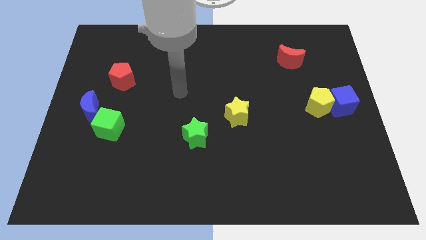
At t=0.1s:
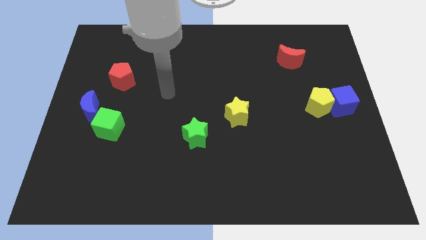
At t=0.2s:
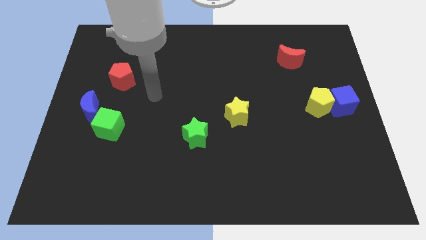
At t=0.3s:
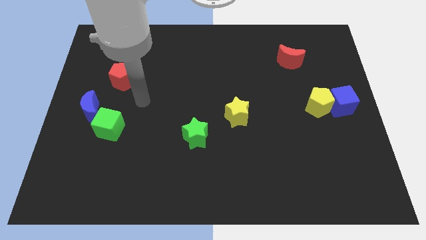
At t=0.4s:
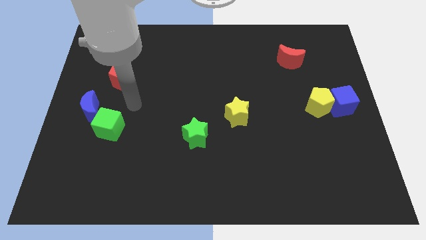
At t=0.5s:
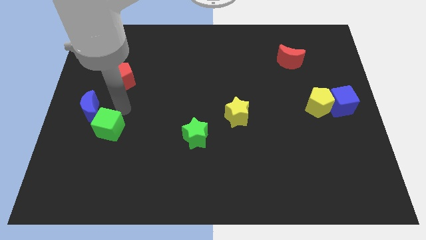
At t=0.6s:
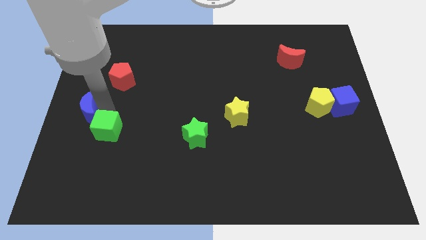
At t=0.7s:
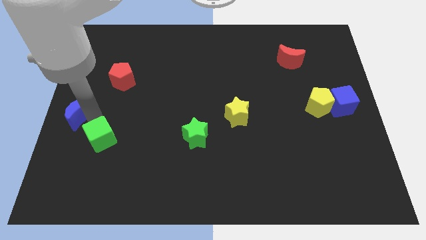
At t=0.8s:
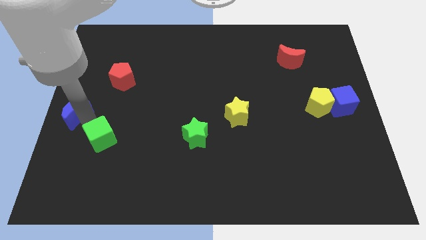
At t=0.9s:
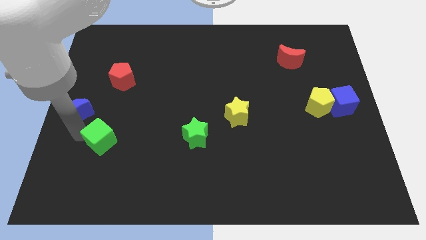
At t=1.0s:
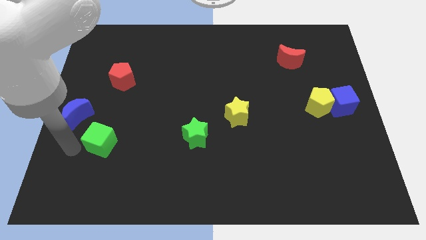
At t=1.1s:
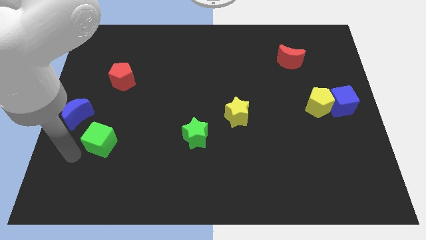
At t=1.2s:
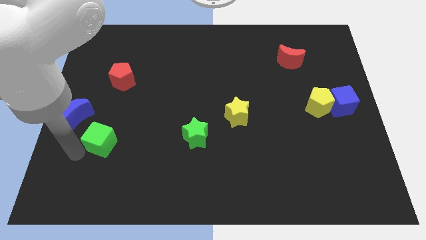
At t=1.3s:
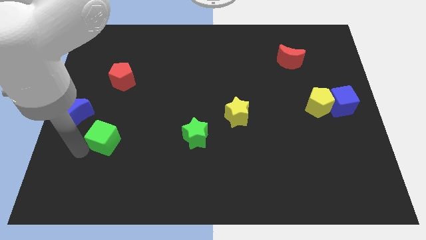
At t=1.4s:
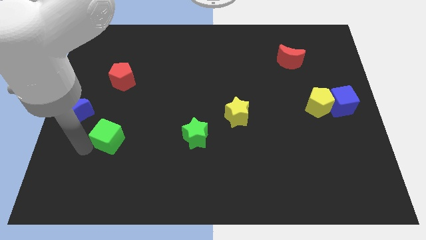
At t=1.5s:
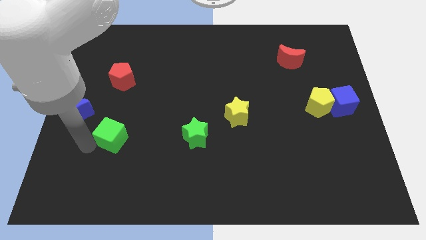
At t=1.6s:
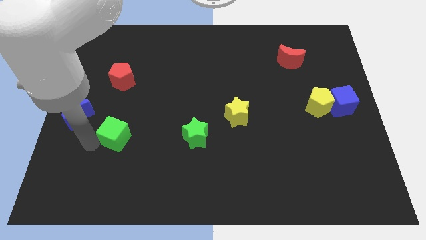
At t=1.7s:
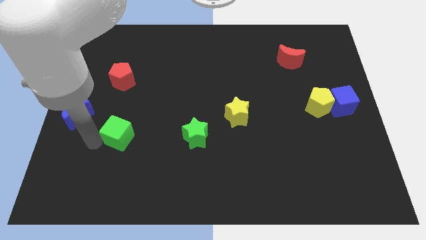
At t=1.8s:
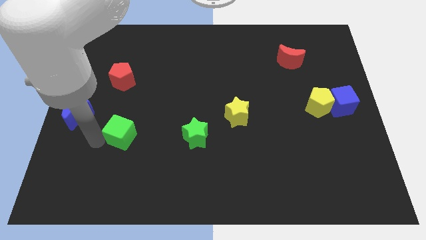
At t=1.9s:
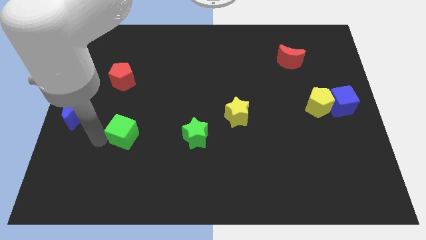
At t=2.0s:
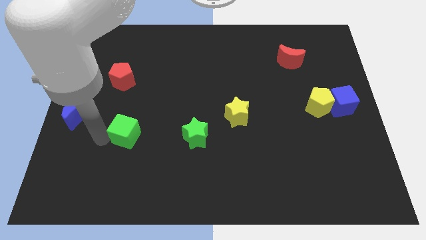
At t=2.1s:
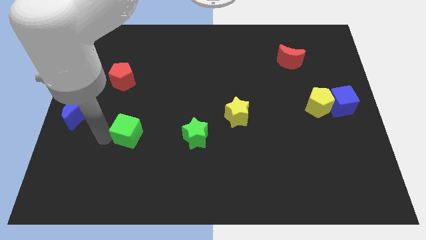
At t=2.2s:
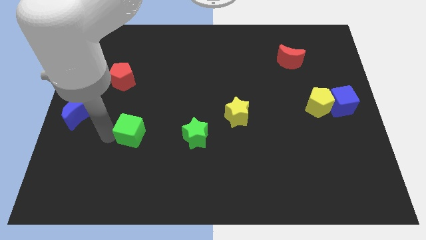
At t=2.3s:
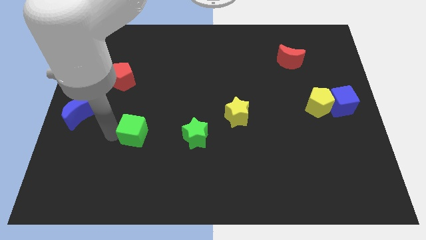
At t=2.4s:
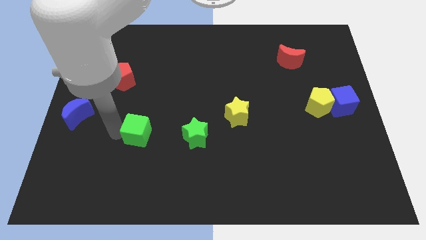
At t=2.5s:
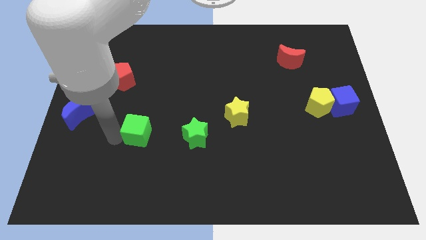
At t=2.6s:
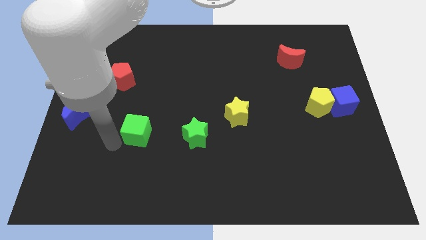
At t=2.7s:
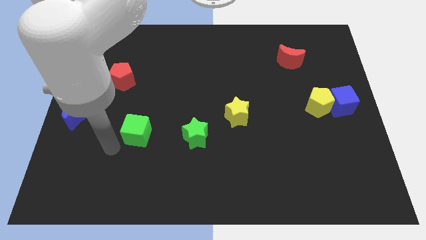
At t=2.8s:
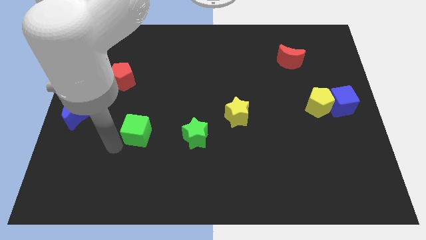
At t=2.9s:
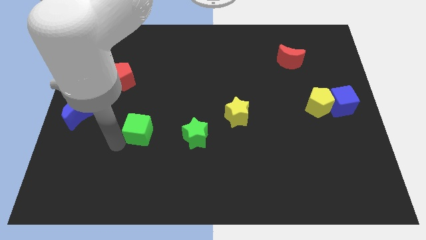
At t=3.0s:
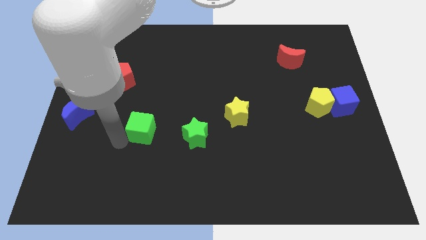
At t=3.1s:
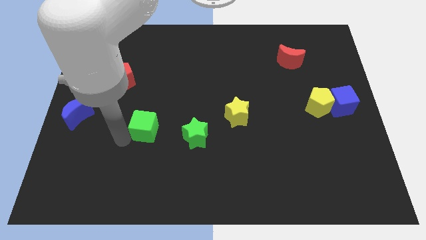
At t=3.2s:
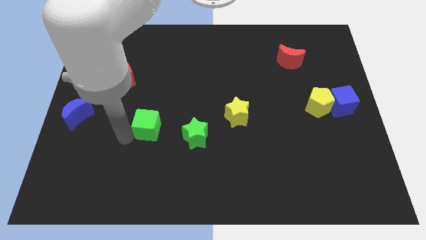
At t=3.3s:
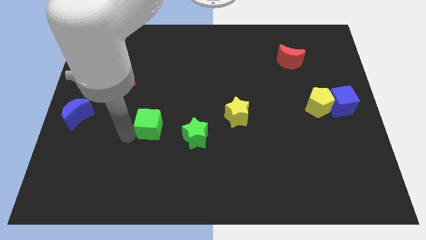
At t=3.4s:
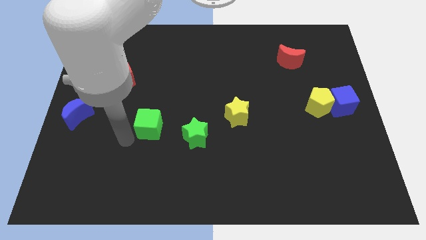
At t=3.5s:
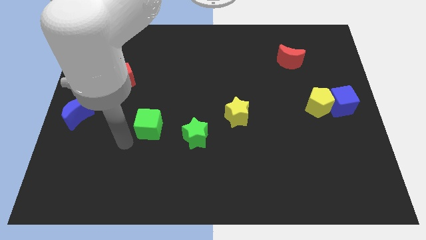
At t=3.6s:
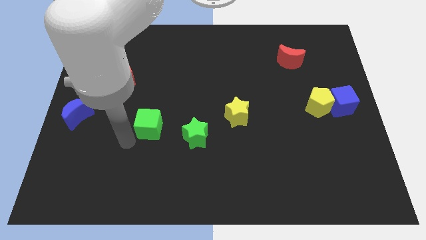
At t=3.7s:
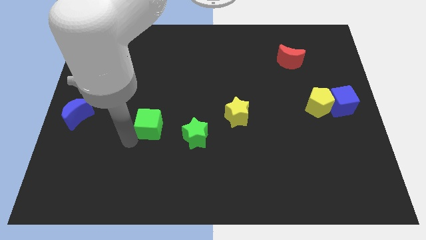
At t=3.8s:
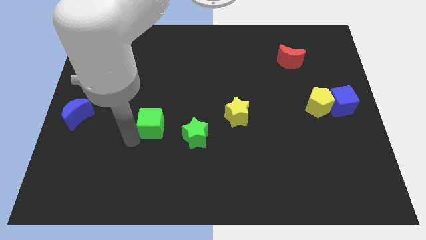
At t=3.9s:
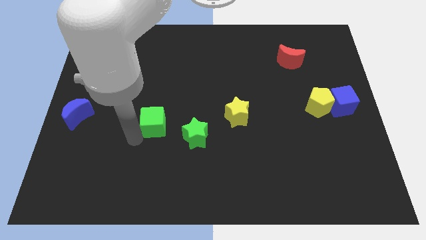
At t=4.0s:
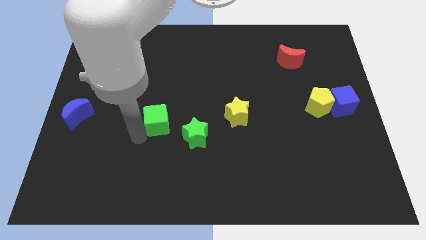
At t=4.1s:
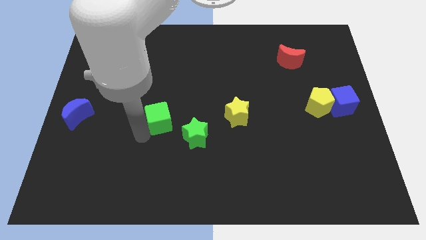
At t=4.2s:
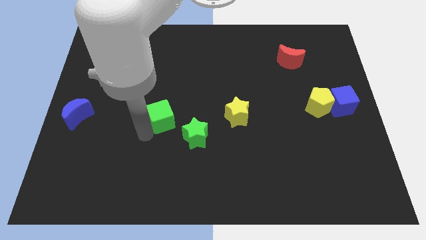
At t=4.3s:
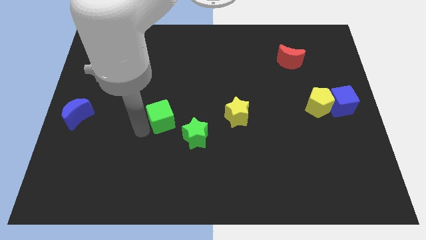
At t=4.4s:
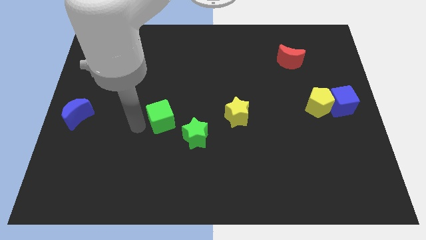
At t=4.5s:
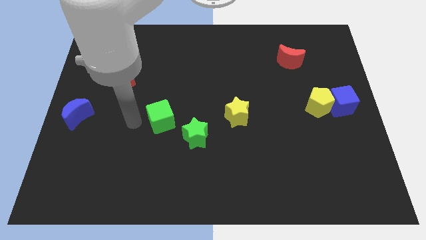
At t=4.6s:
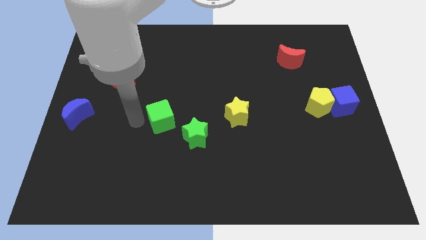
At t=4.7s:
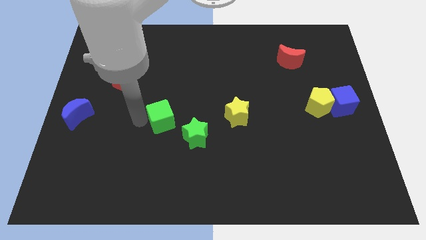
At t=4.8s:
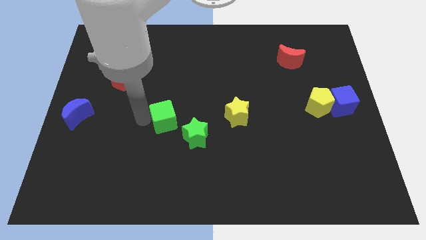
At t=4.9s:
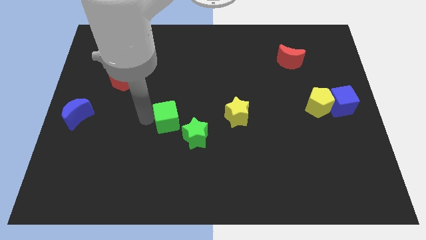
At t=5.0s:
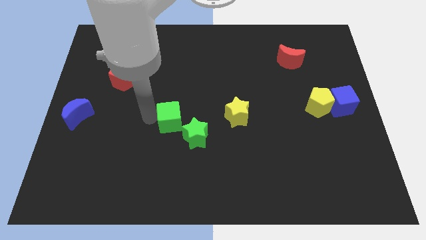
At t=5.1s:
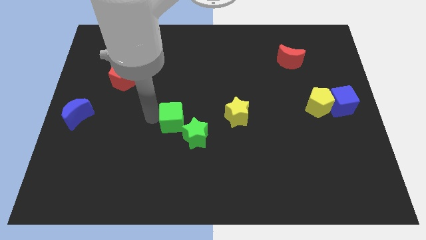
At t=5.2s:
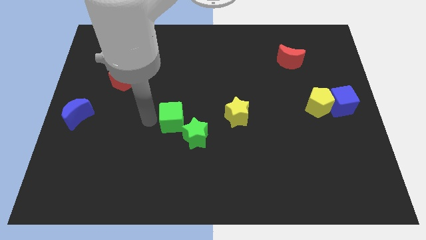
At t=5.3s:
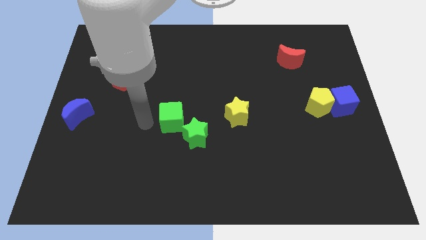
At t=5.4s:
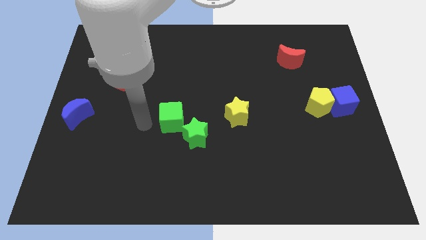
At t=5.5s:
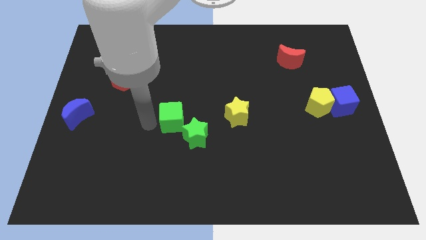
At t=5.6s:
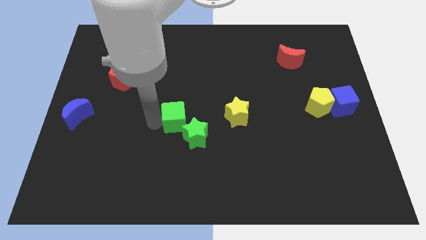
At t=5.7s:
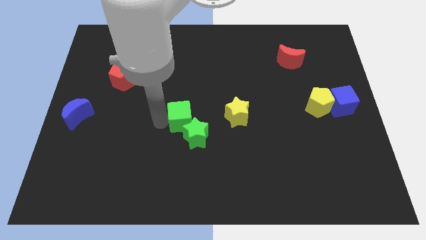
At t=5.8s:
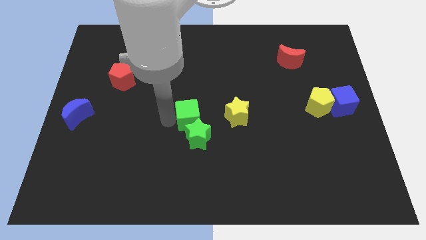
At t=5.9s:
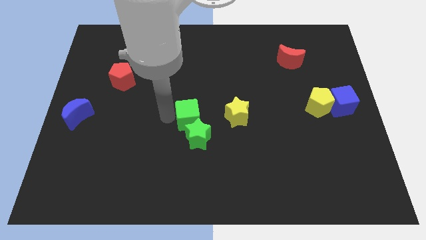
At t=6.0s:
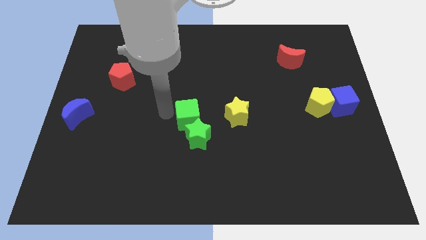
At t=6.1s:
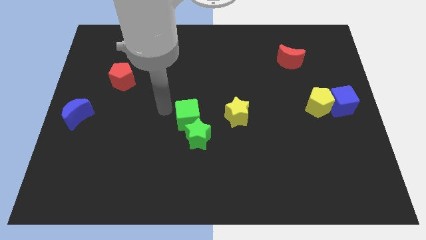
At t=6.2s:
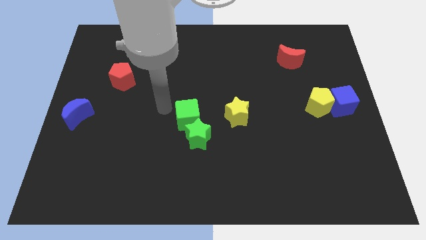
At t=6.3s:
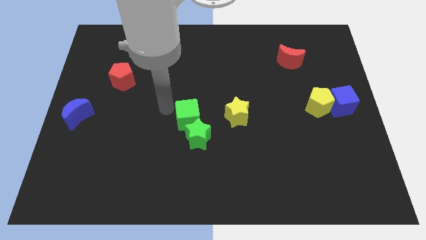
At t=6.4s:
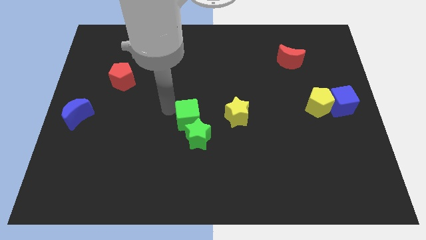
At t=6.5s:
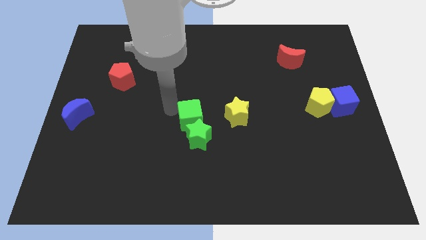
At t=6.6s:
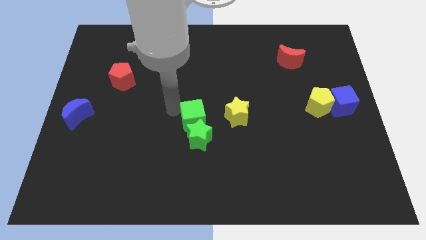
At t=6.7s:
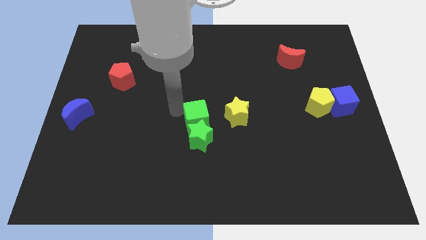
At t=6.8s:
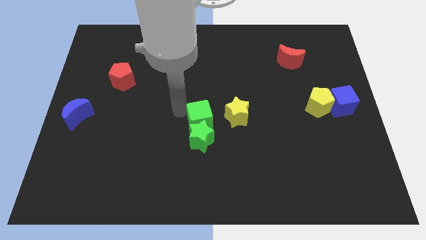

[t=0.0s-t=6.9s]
slide the green cube right

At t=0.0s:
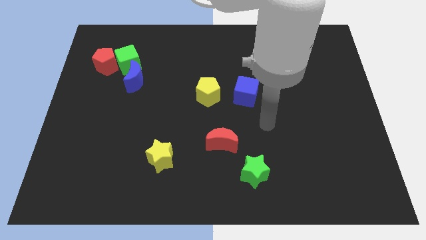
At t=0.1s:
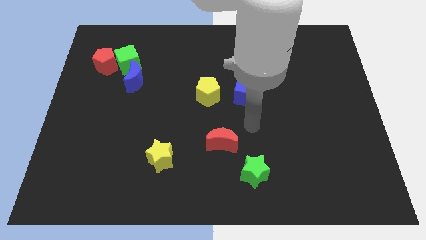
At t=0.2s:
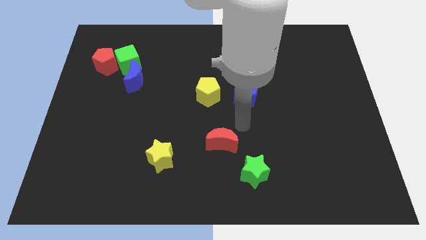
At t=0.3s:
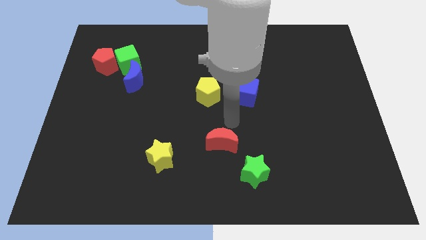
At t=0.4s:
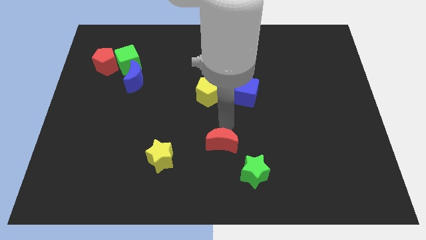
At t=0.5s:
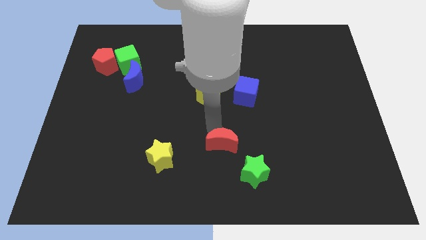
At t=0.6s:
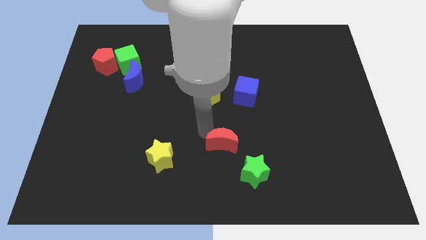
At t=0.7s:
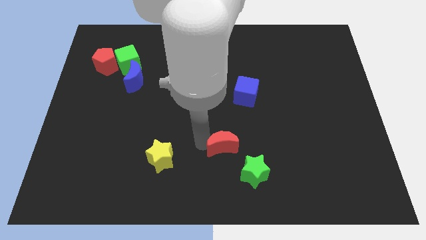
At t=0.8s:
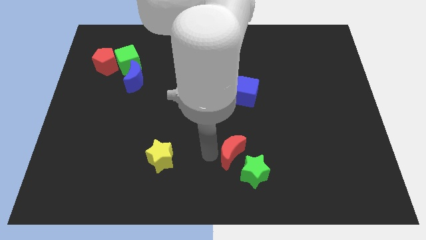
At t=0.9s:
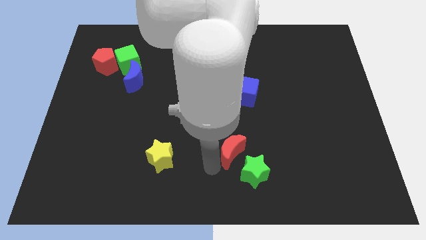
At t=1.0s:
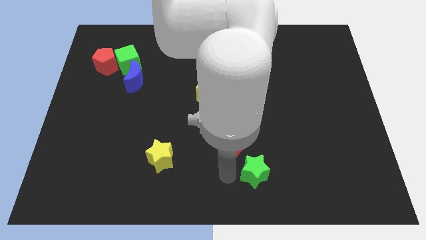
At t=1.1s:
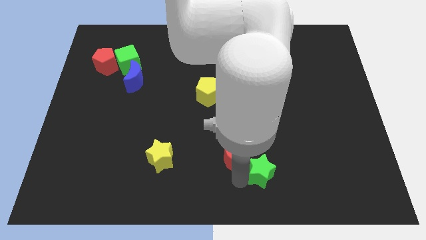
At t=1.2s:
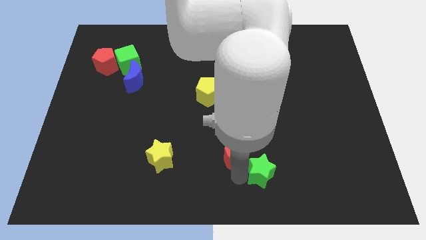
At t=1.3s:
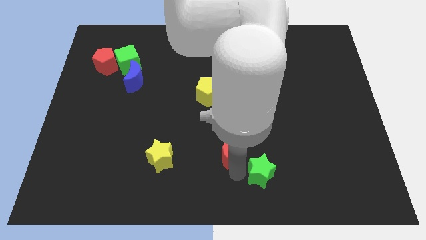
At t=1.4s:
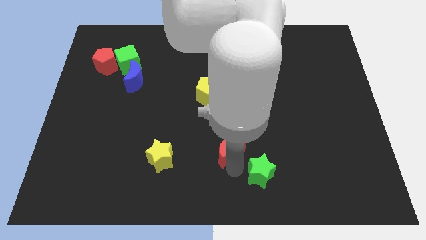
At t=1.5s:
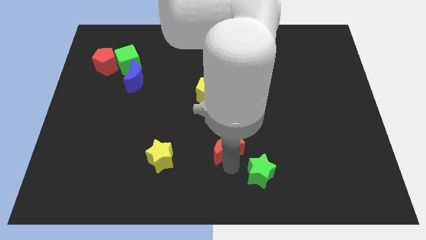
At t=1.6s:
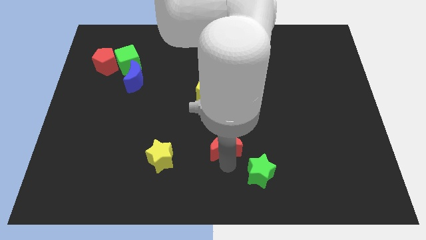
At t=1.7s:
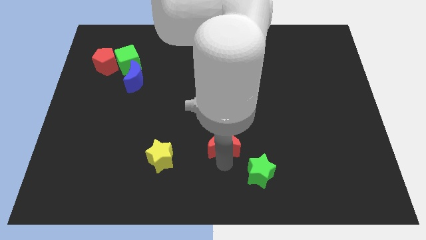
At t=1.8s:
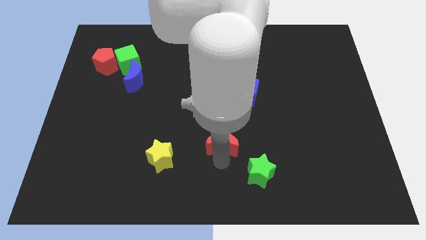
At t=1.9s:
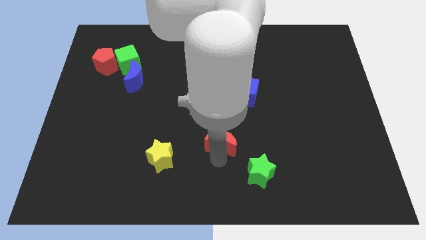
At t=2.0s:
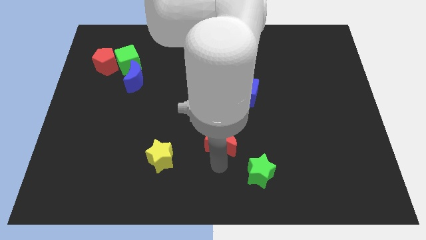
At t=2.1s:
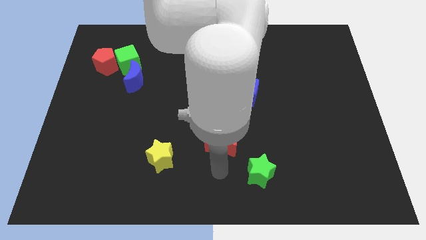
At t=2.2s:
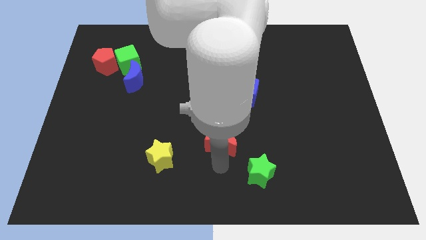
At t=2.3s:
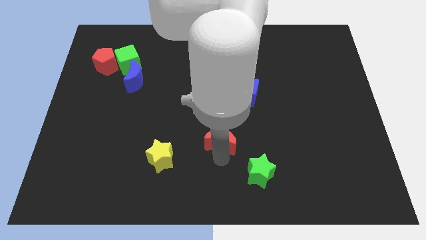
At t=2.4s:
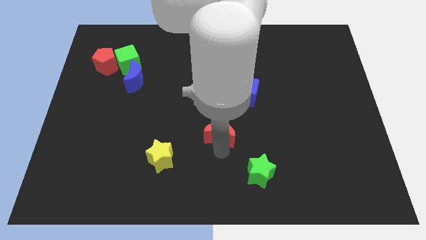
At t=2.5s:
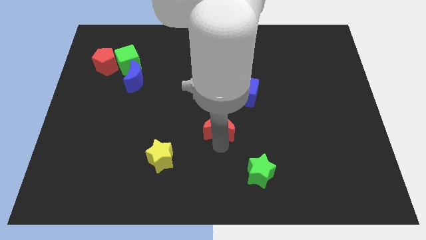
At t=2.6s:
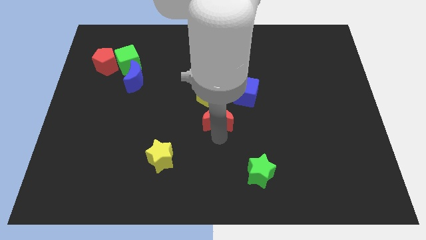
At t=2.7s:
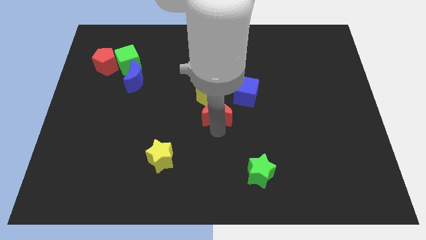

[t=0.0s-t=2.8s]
push the red moon slightly up
